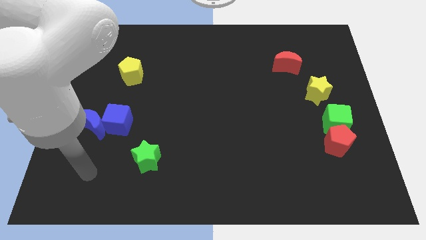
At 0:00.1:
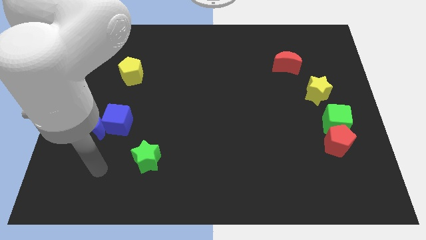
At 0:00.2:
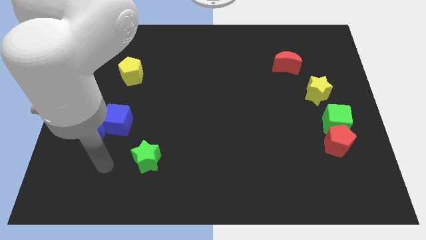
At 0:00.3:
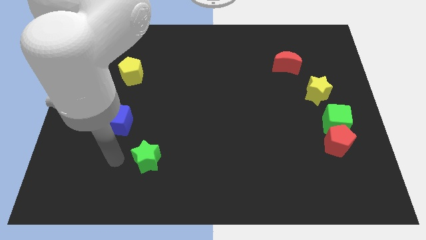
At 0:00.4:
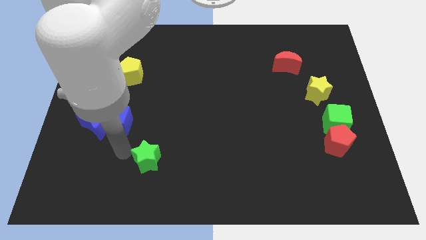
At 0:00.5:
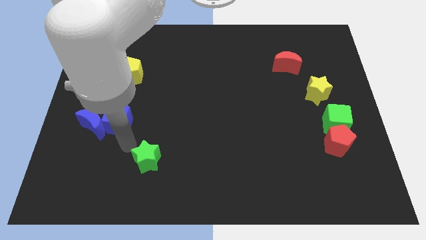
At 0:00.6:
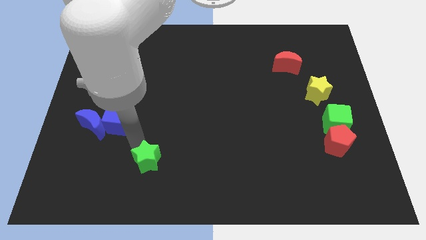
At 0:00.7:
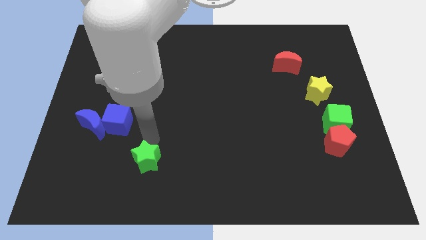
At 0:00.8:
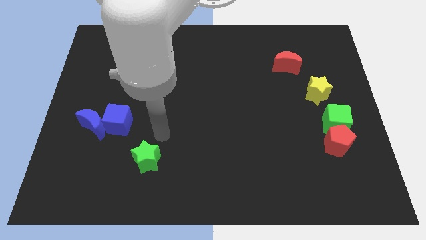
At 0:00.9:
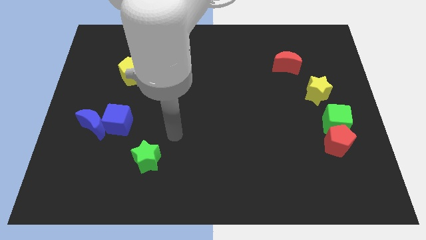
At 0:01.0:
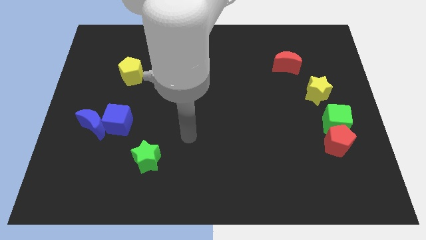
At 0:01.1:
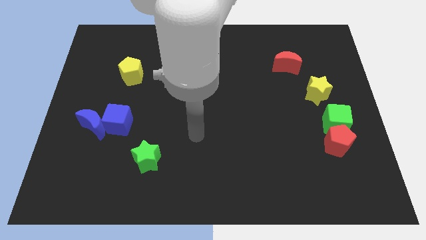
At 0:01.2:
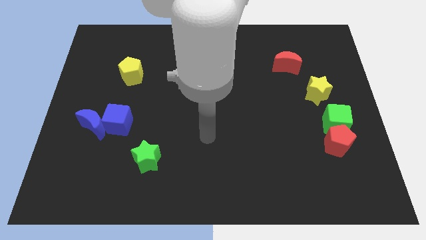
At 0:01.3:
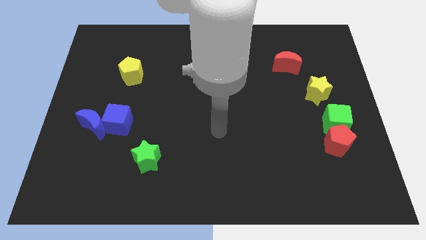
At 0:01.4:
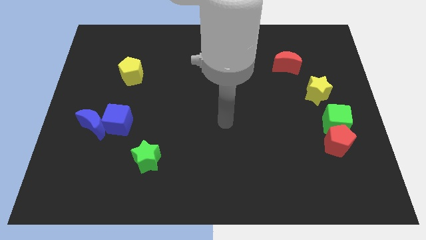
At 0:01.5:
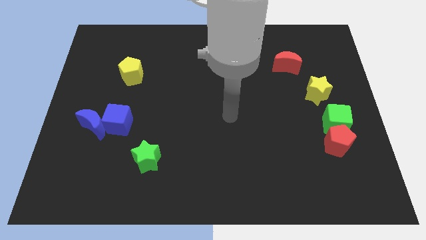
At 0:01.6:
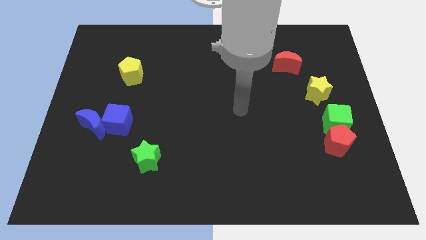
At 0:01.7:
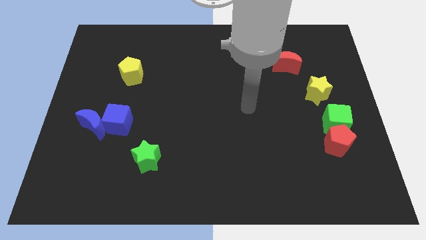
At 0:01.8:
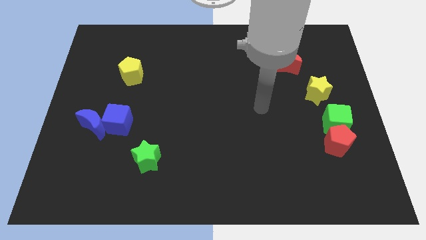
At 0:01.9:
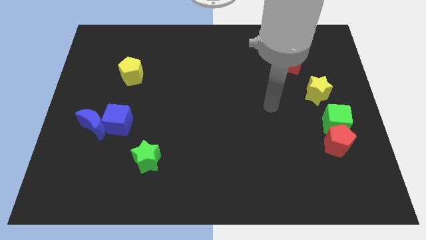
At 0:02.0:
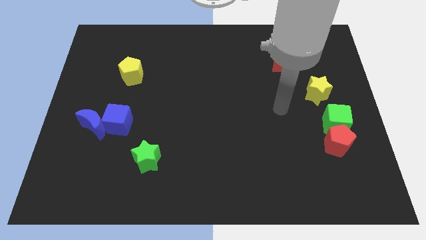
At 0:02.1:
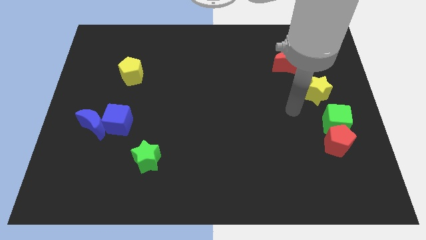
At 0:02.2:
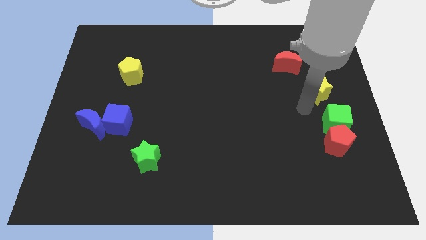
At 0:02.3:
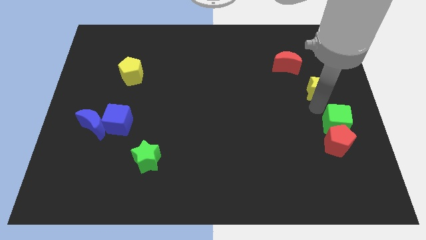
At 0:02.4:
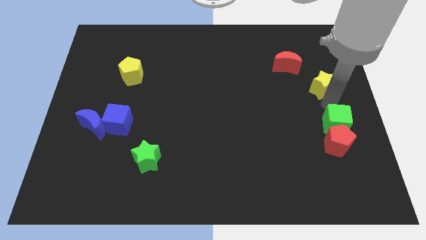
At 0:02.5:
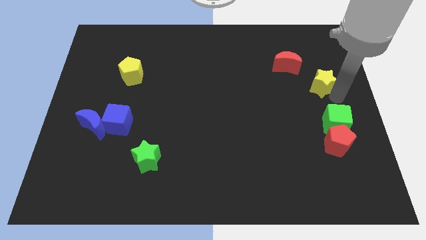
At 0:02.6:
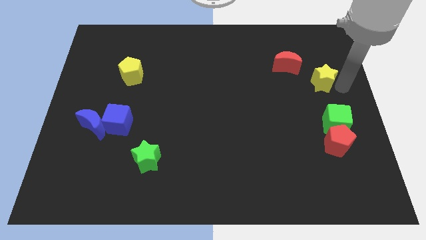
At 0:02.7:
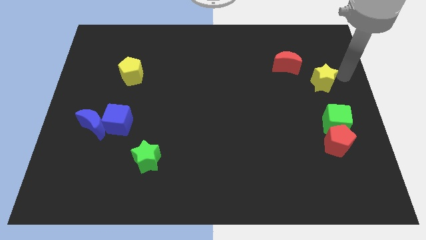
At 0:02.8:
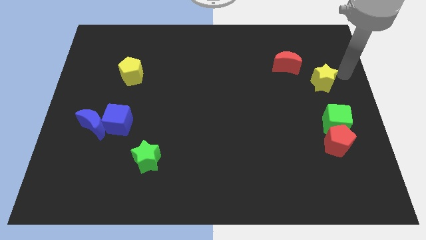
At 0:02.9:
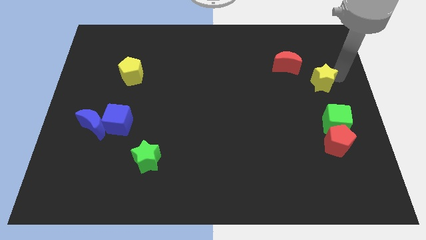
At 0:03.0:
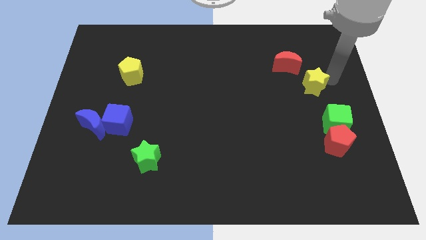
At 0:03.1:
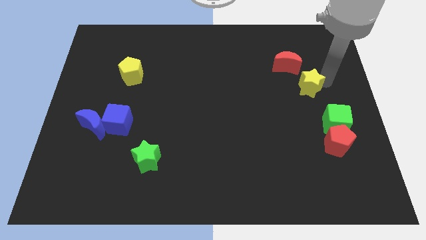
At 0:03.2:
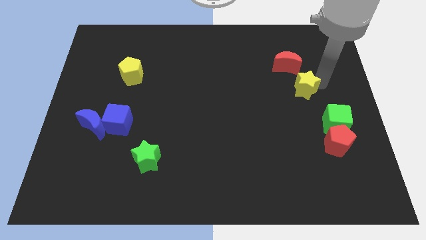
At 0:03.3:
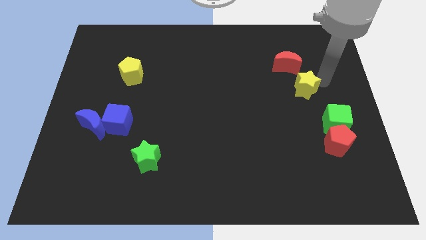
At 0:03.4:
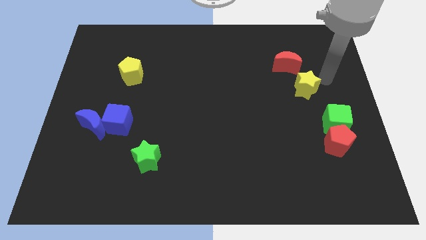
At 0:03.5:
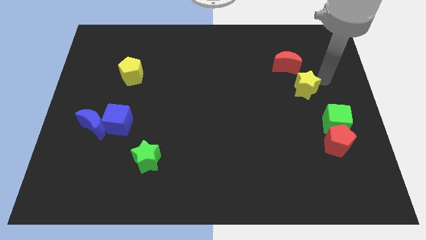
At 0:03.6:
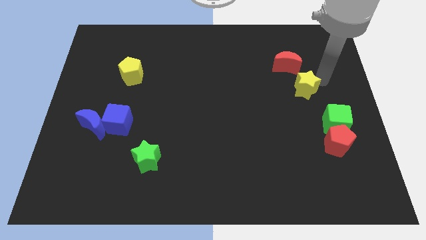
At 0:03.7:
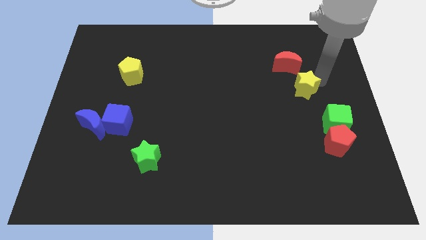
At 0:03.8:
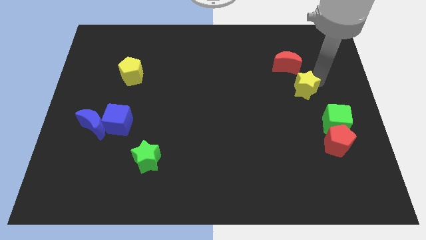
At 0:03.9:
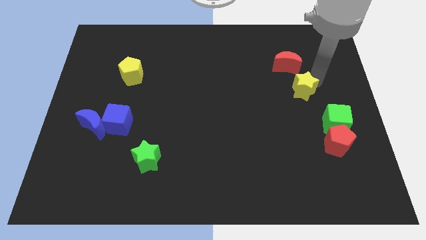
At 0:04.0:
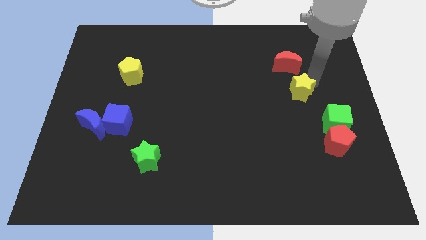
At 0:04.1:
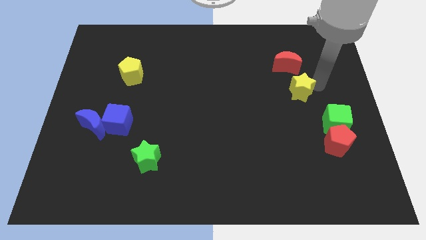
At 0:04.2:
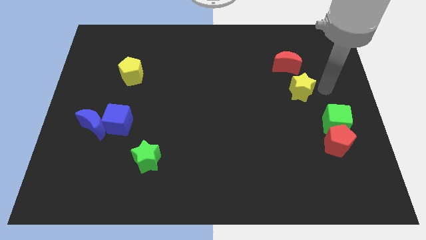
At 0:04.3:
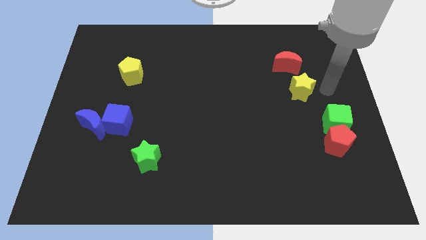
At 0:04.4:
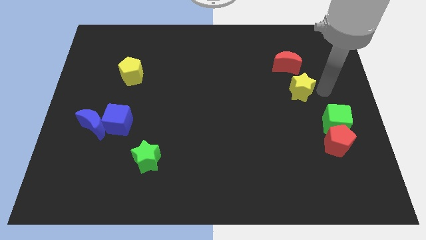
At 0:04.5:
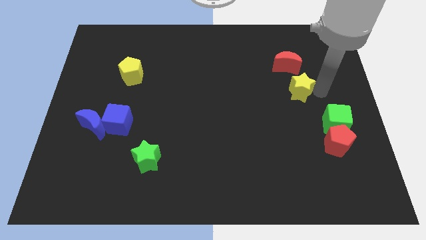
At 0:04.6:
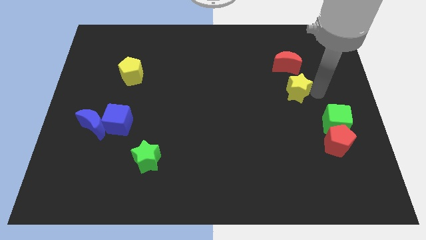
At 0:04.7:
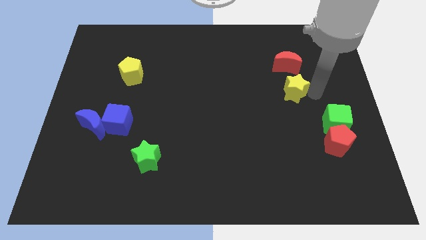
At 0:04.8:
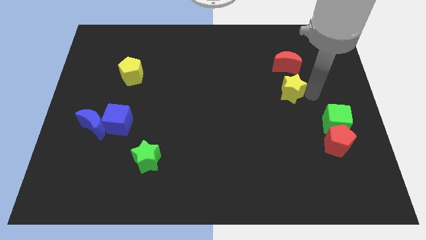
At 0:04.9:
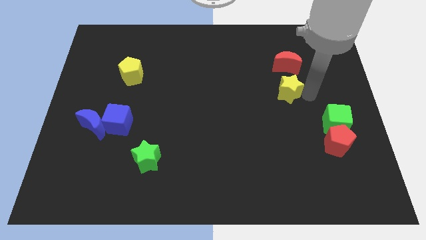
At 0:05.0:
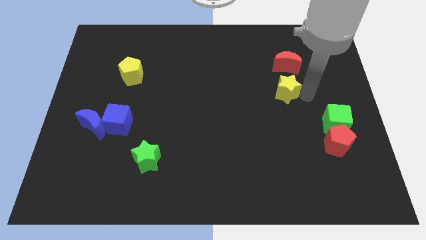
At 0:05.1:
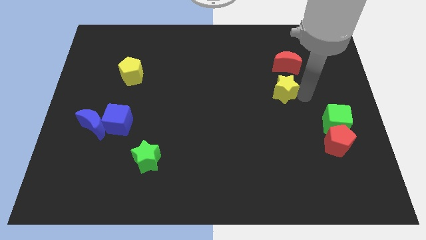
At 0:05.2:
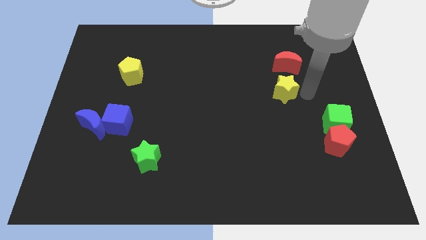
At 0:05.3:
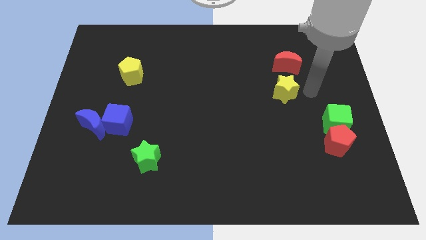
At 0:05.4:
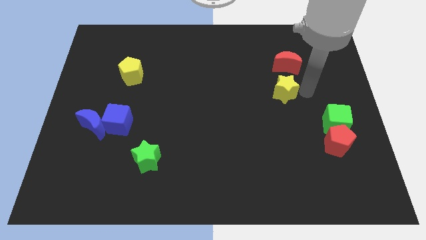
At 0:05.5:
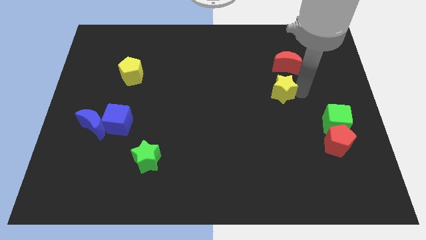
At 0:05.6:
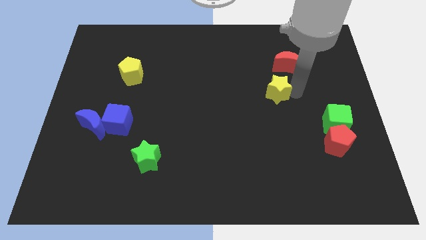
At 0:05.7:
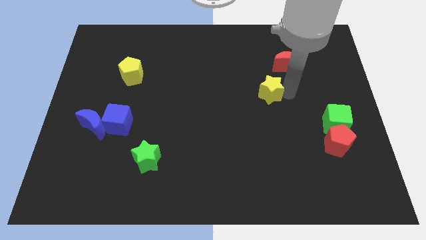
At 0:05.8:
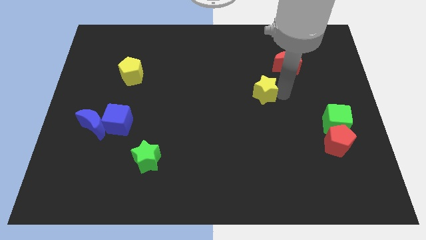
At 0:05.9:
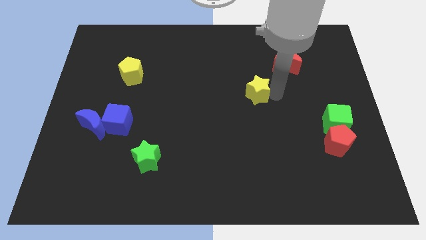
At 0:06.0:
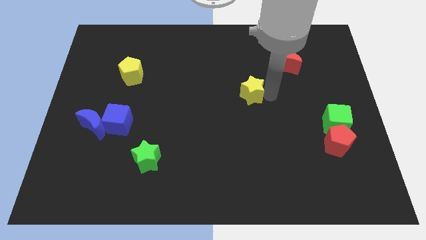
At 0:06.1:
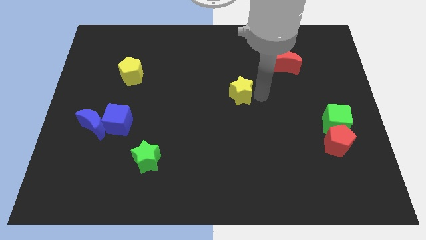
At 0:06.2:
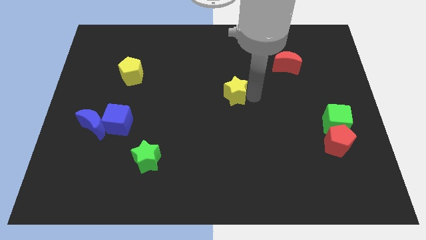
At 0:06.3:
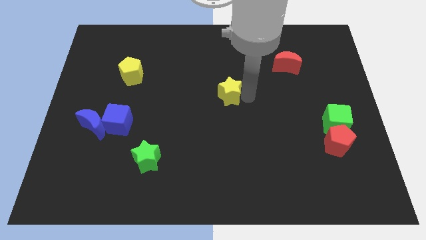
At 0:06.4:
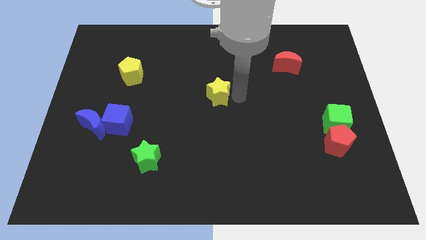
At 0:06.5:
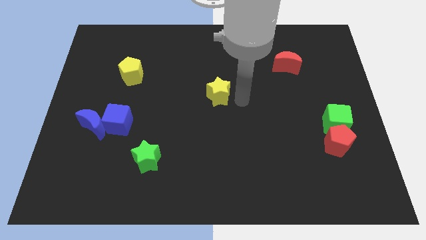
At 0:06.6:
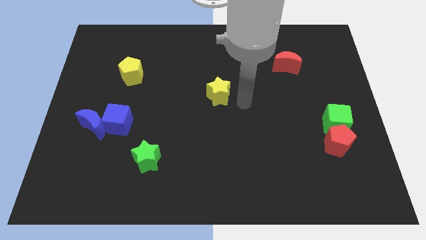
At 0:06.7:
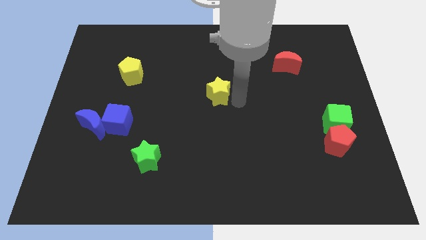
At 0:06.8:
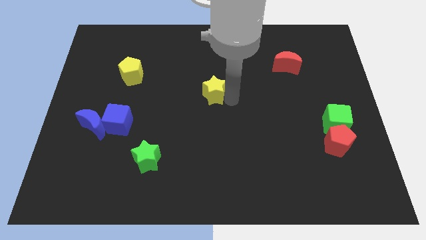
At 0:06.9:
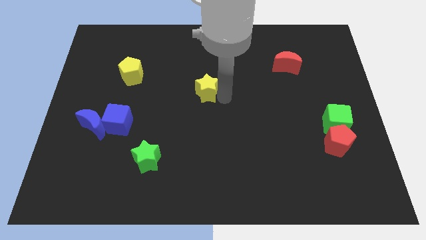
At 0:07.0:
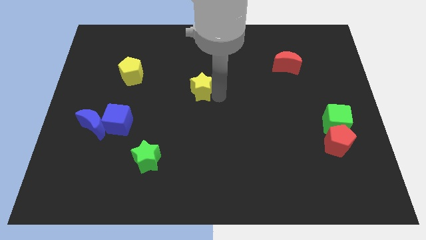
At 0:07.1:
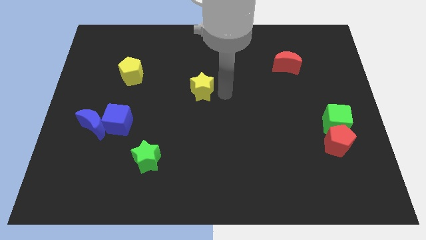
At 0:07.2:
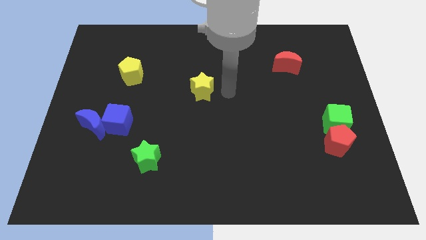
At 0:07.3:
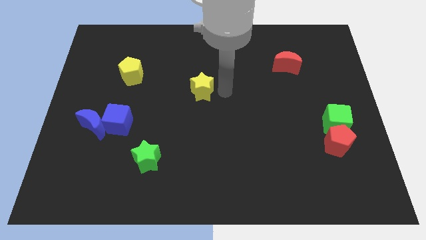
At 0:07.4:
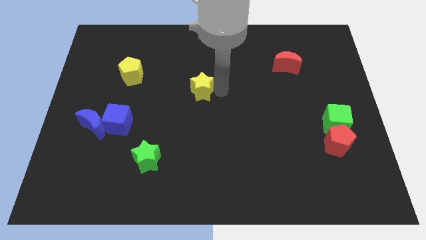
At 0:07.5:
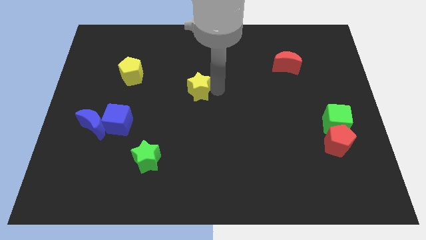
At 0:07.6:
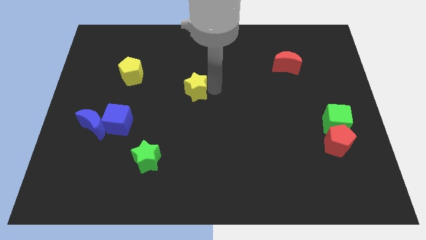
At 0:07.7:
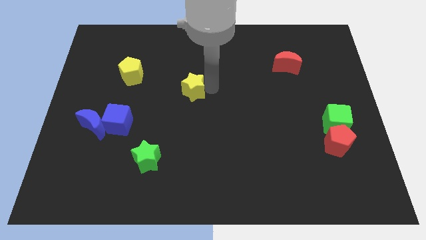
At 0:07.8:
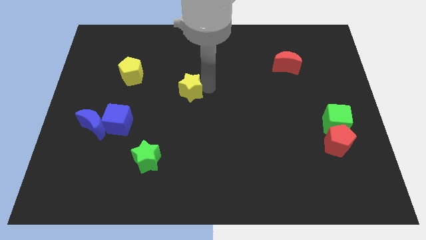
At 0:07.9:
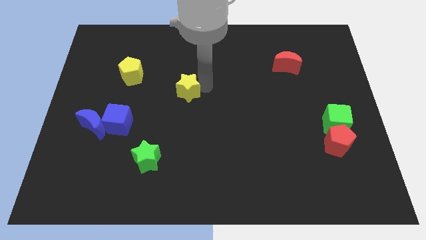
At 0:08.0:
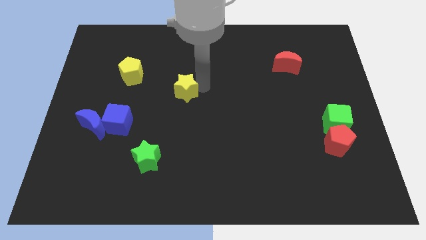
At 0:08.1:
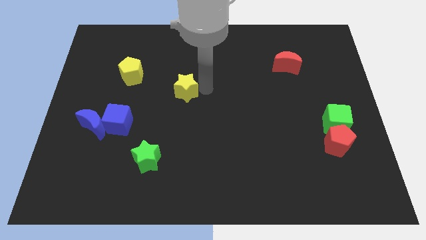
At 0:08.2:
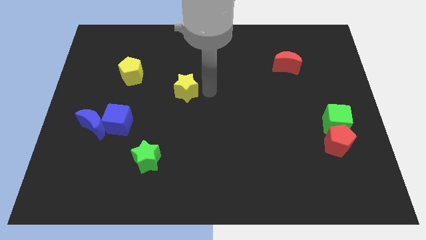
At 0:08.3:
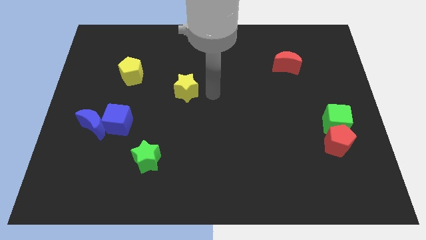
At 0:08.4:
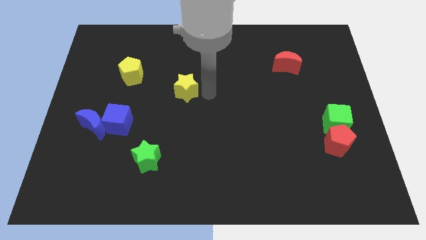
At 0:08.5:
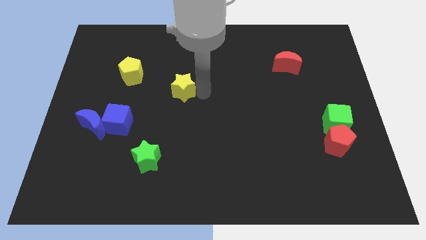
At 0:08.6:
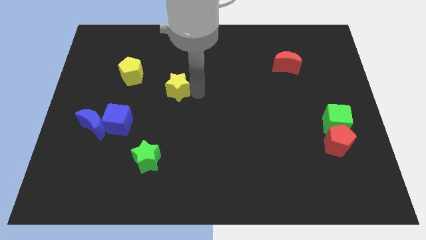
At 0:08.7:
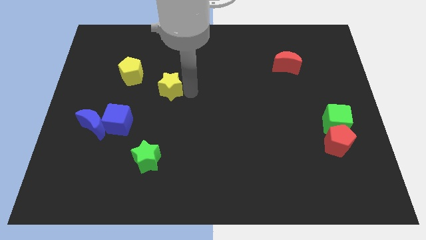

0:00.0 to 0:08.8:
push the yellow star to the bottom right of the yellow pentagon
